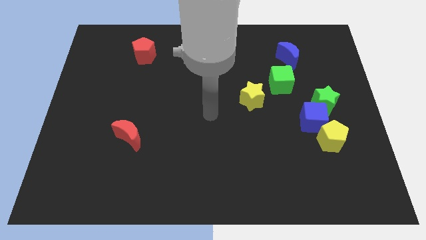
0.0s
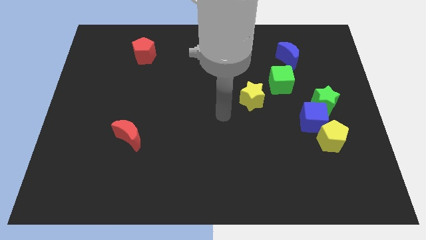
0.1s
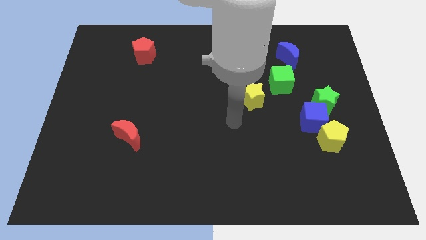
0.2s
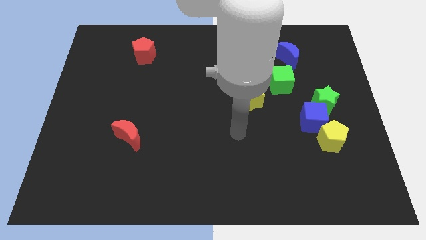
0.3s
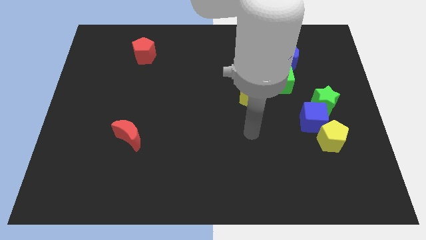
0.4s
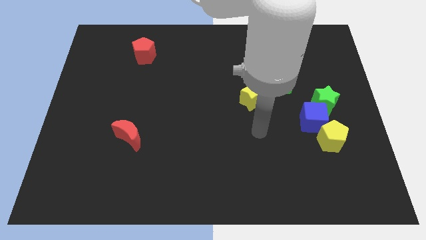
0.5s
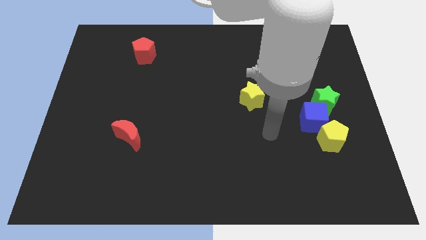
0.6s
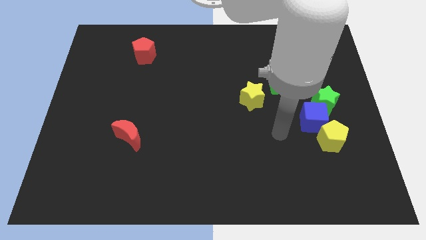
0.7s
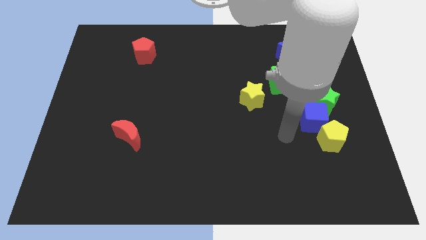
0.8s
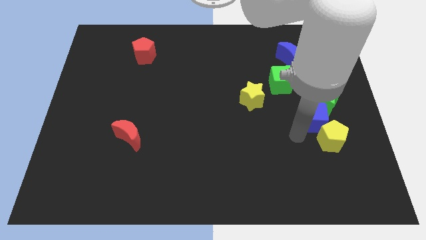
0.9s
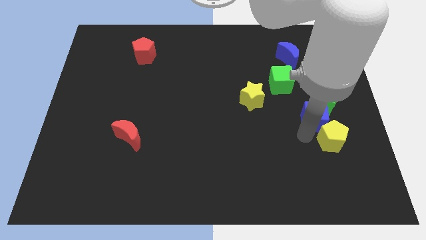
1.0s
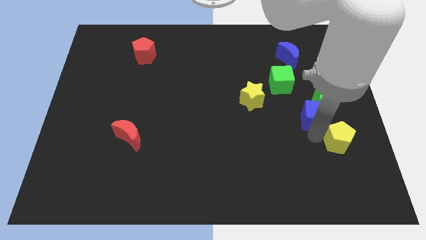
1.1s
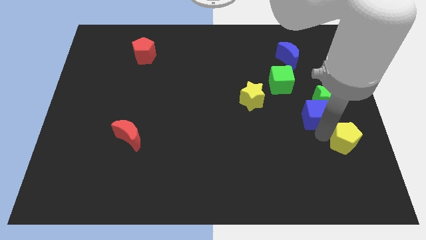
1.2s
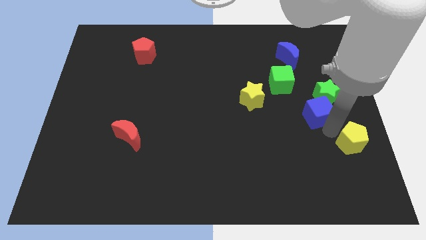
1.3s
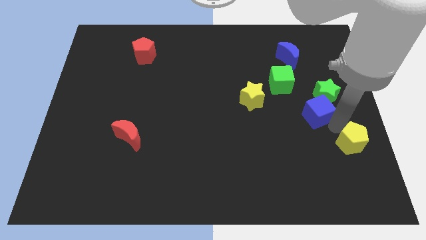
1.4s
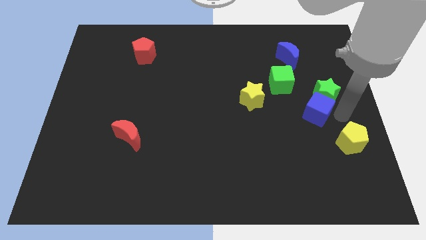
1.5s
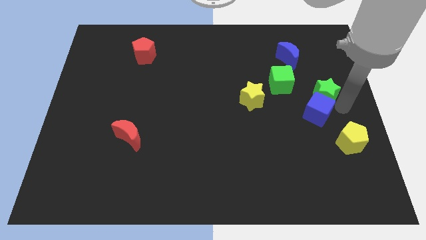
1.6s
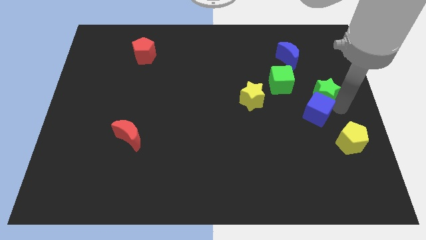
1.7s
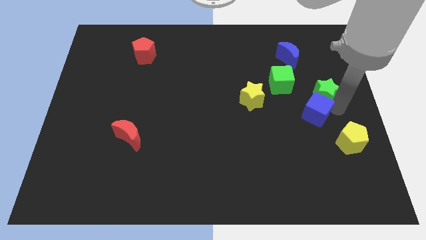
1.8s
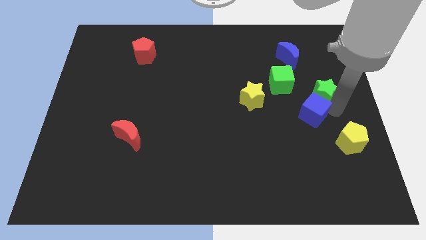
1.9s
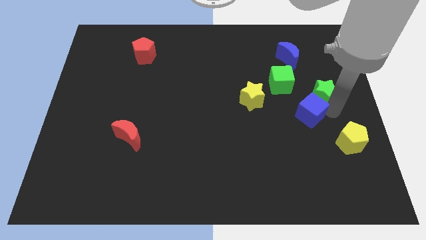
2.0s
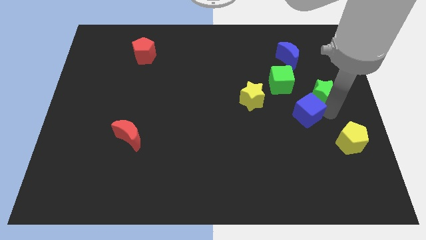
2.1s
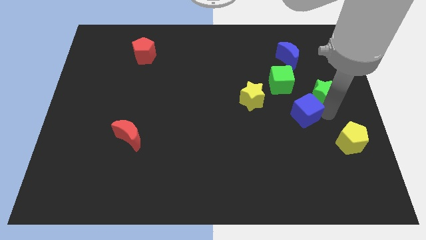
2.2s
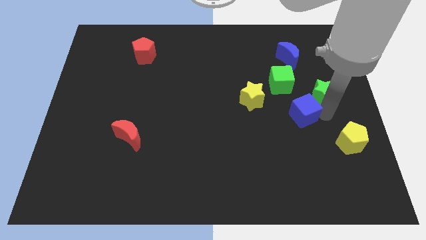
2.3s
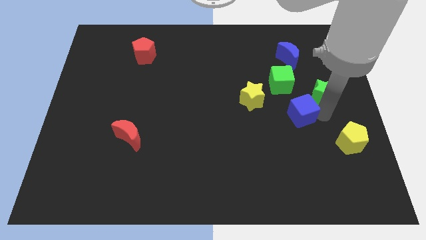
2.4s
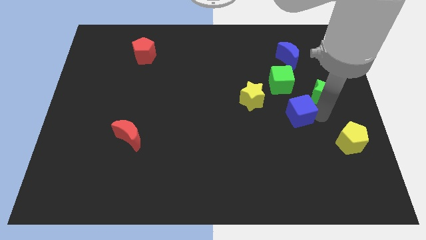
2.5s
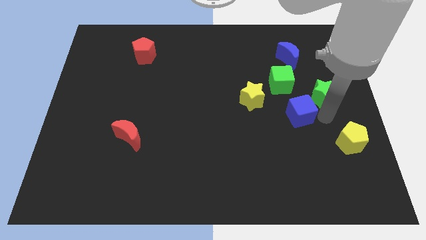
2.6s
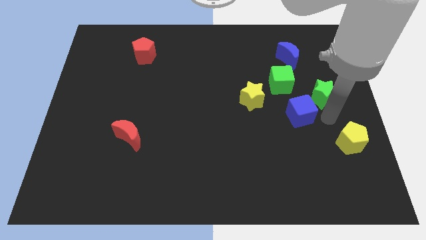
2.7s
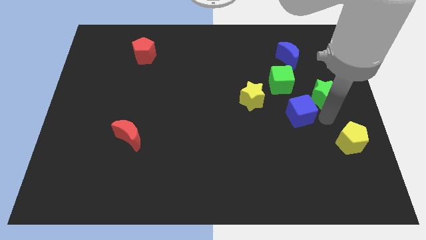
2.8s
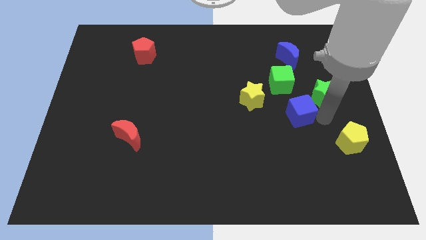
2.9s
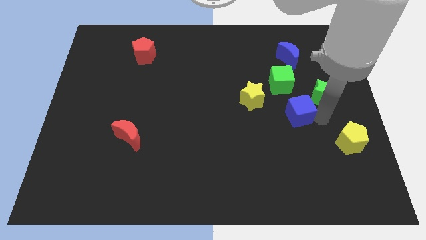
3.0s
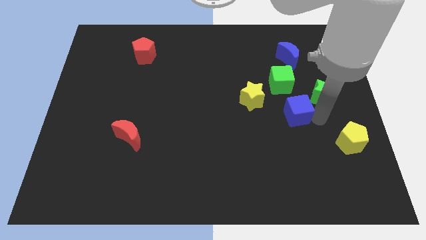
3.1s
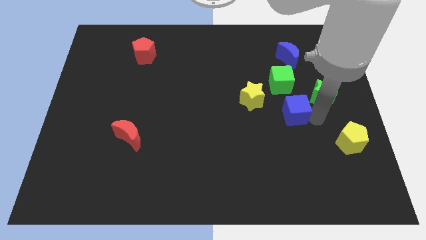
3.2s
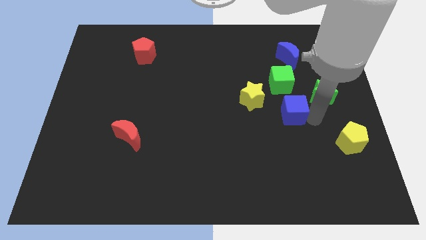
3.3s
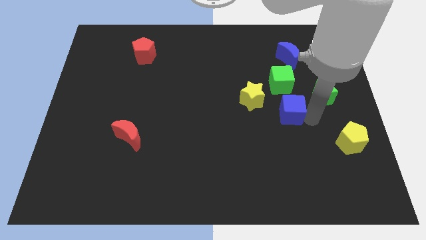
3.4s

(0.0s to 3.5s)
separate the blue cube from the green star and yellow pentagon

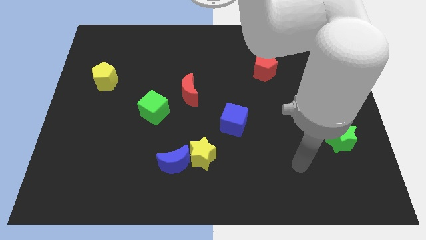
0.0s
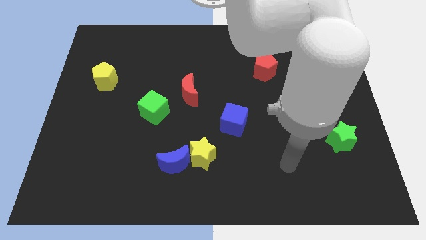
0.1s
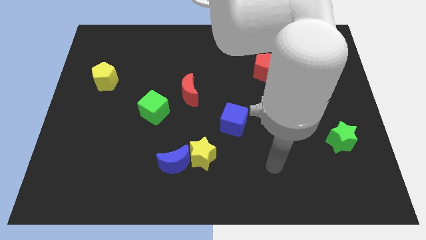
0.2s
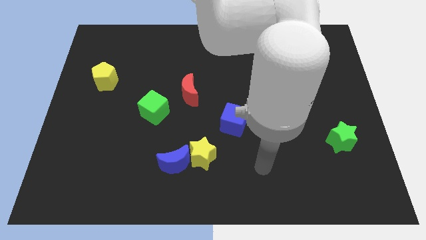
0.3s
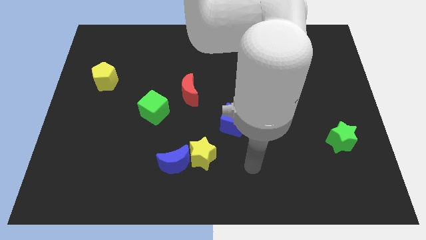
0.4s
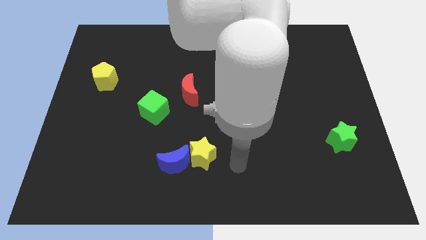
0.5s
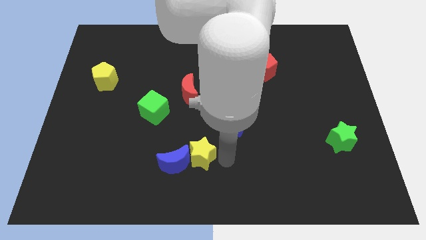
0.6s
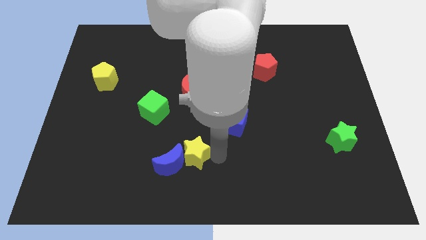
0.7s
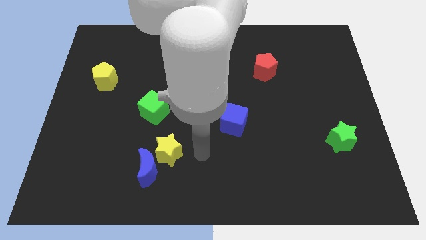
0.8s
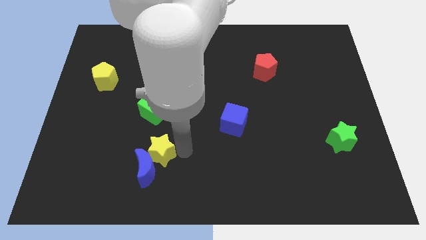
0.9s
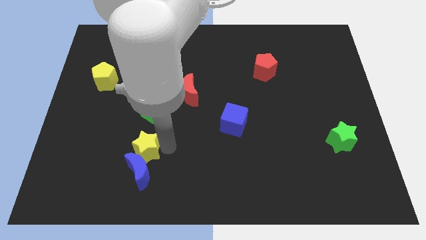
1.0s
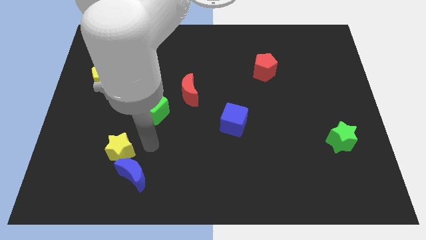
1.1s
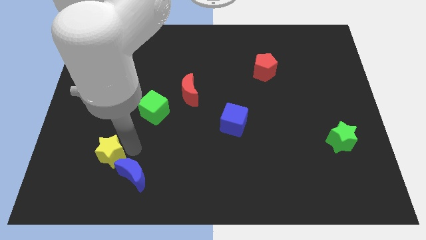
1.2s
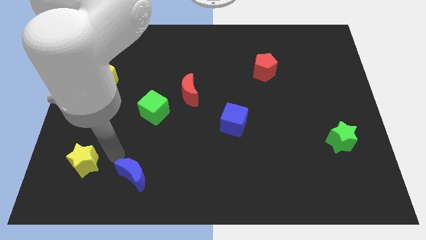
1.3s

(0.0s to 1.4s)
separate the blue moon from the yellow star

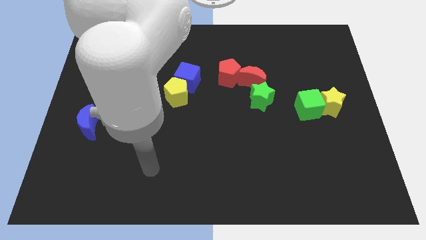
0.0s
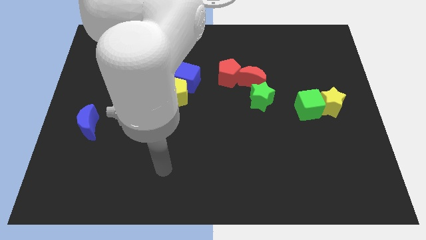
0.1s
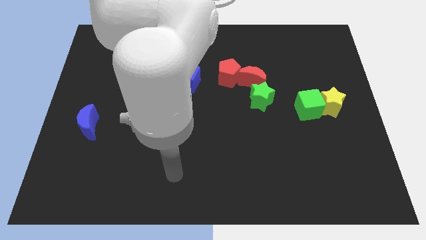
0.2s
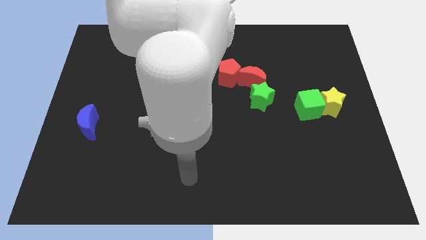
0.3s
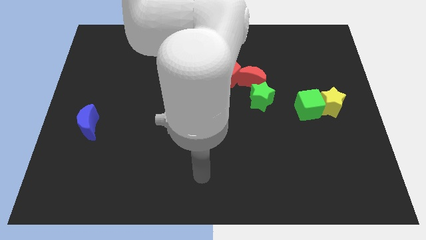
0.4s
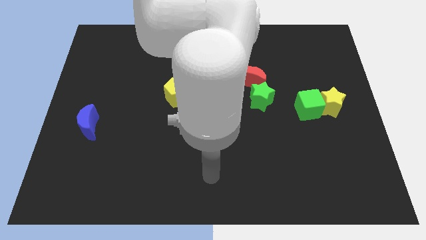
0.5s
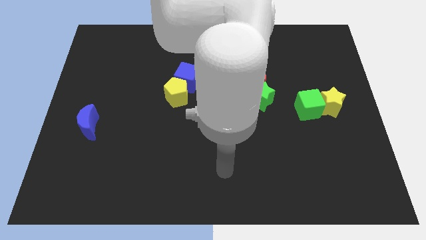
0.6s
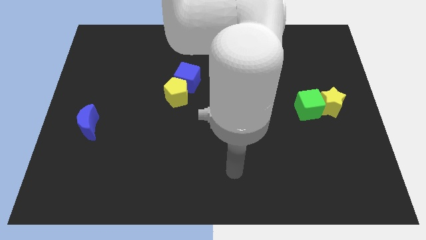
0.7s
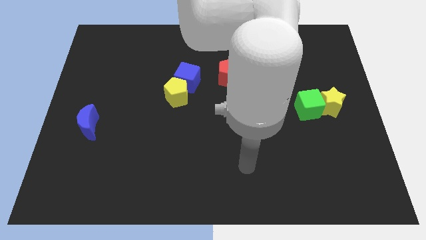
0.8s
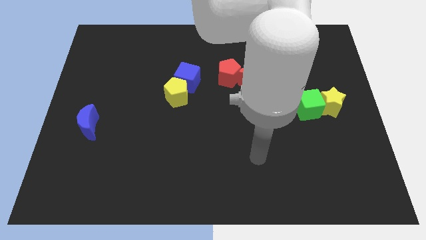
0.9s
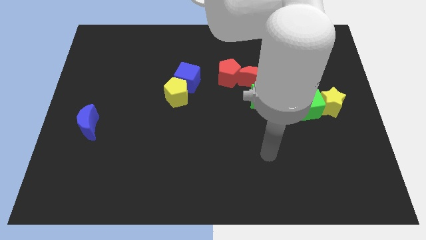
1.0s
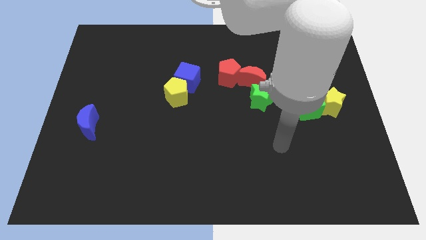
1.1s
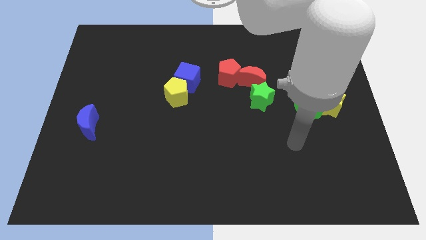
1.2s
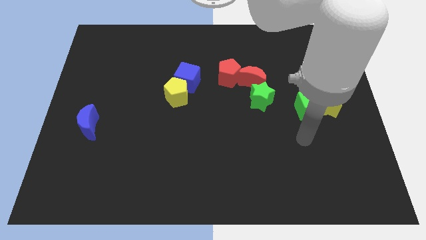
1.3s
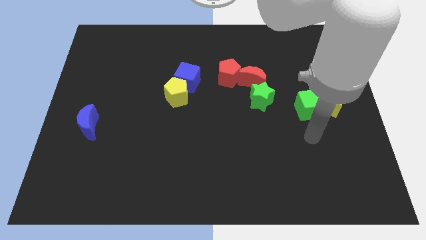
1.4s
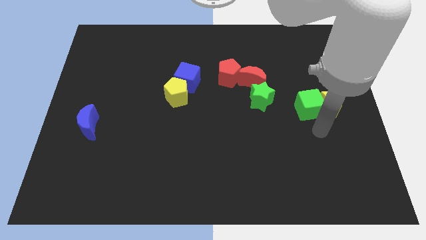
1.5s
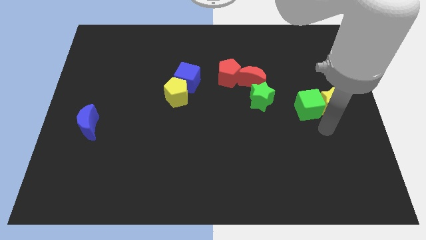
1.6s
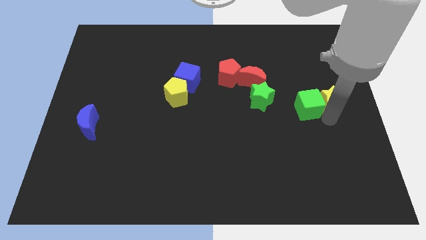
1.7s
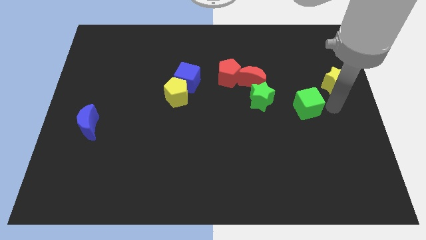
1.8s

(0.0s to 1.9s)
move the green cube away from the yellow star

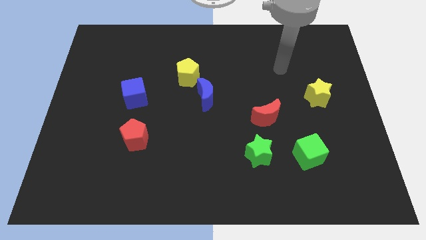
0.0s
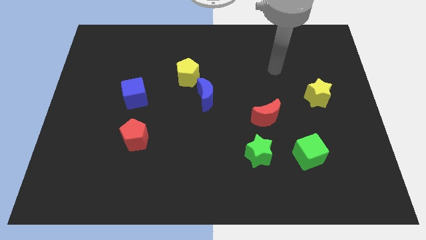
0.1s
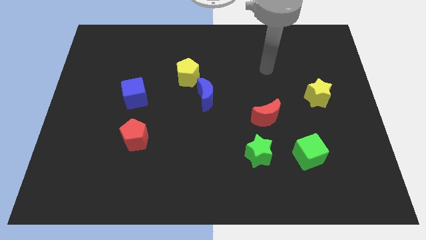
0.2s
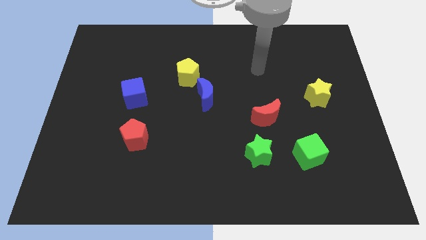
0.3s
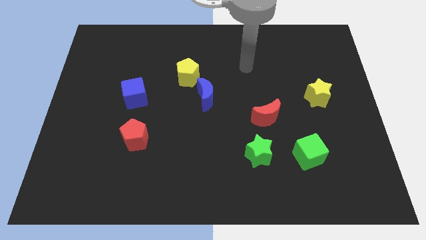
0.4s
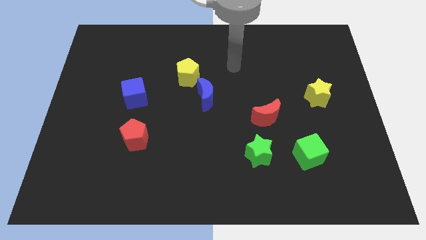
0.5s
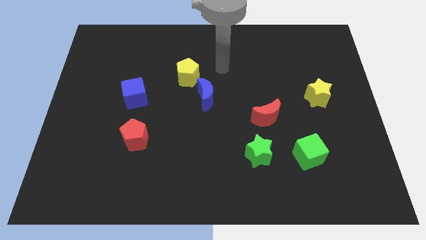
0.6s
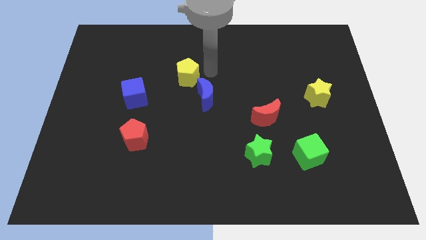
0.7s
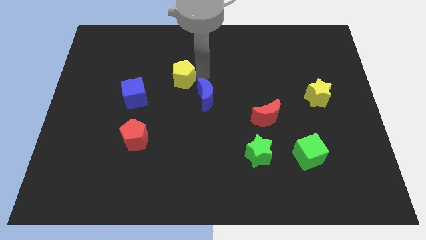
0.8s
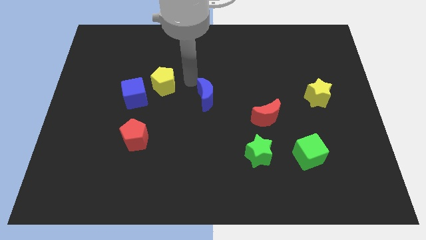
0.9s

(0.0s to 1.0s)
separate the blue moon from the yellow pentagon

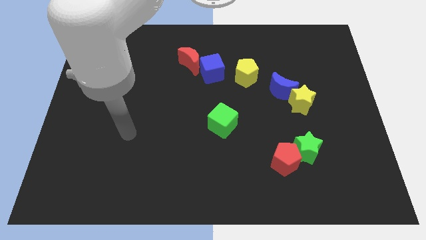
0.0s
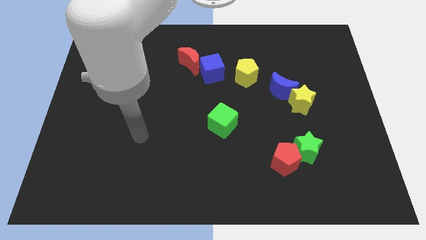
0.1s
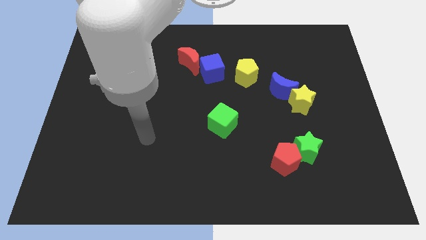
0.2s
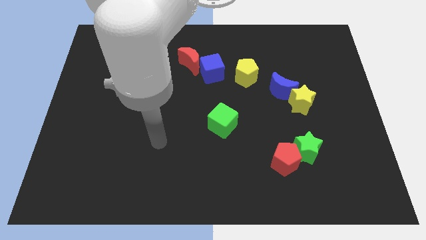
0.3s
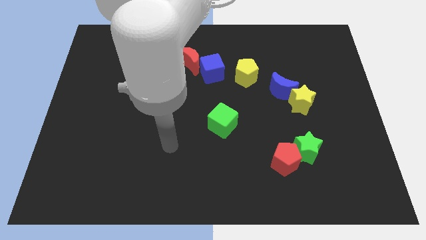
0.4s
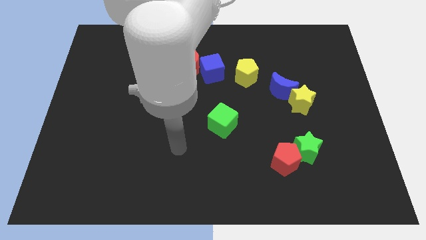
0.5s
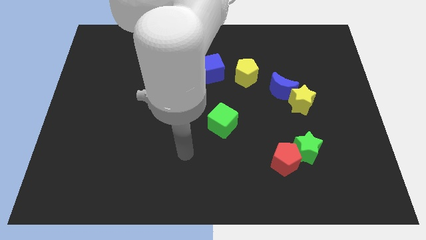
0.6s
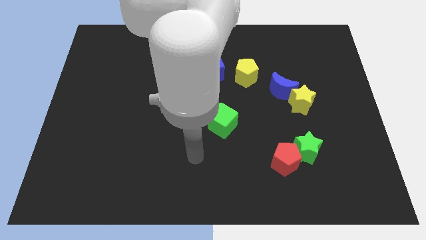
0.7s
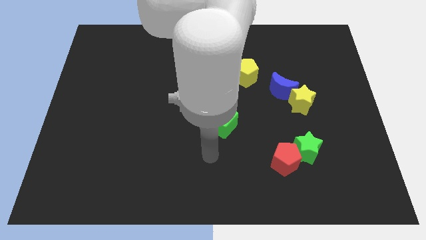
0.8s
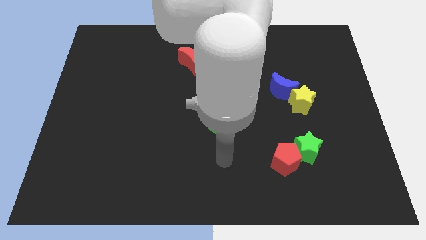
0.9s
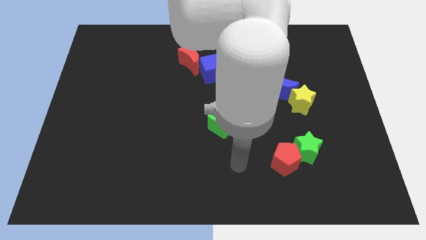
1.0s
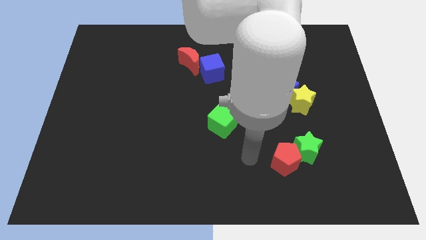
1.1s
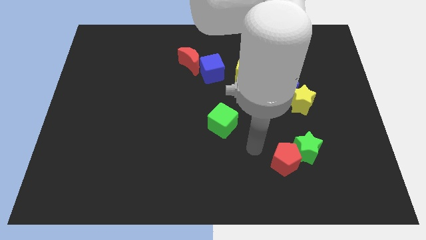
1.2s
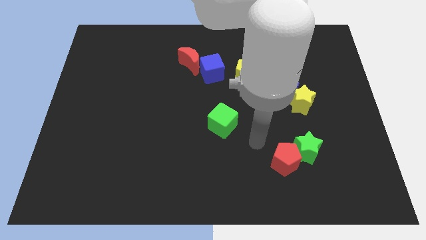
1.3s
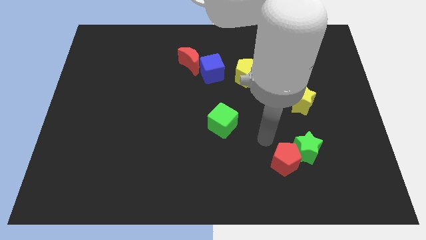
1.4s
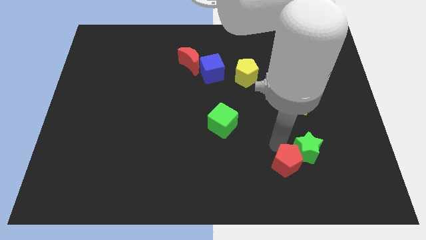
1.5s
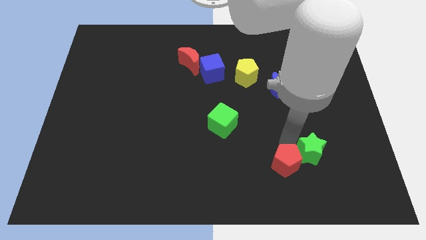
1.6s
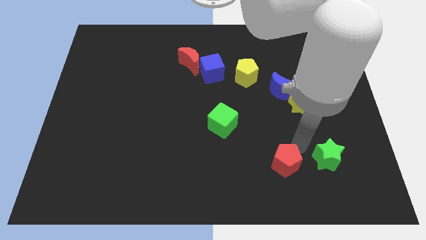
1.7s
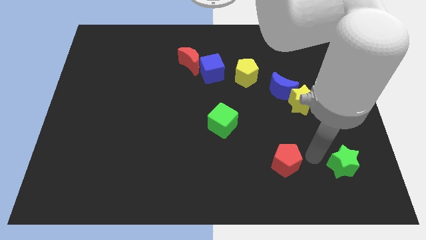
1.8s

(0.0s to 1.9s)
separate the red pentagon from the green star
